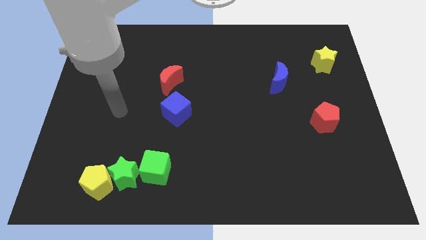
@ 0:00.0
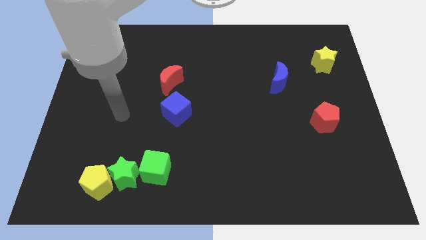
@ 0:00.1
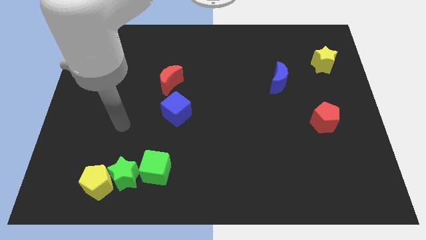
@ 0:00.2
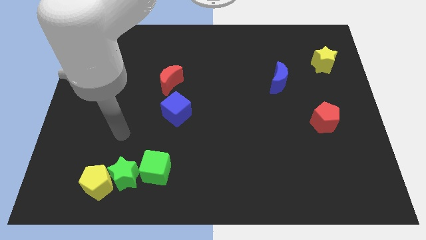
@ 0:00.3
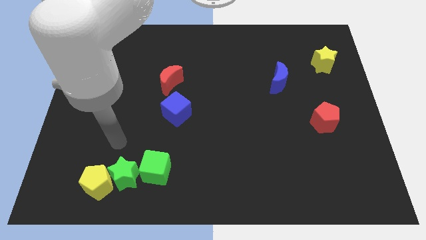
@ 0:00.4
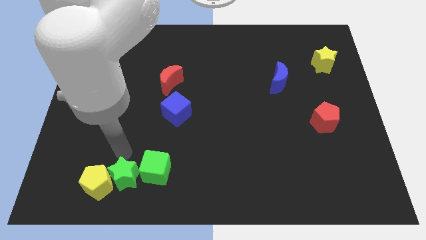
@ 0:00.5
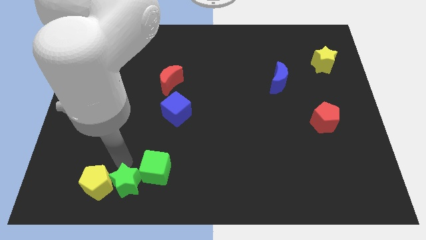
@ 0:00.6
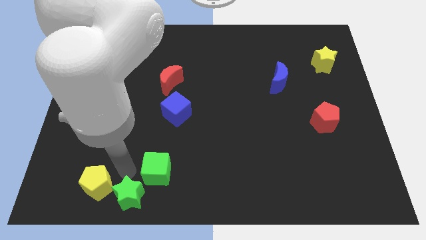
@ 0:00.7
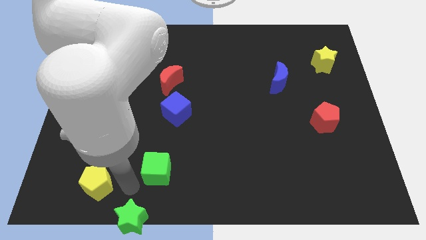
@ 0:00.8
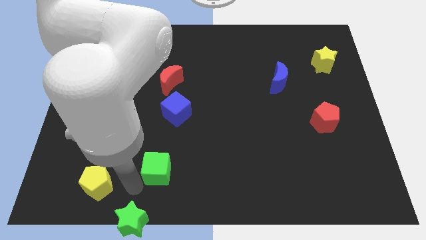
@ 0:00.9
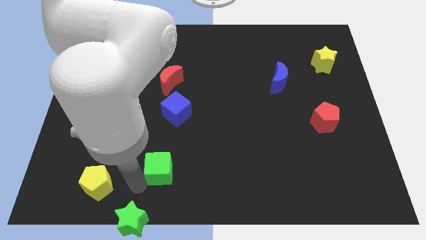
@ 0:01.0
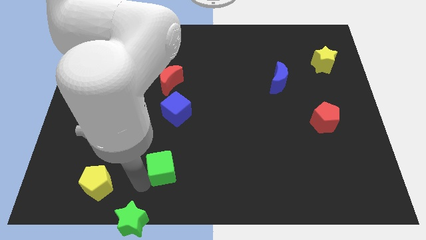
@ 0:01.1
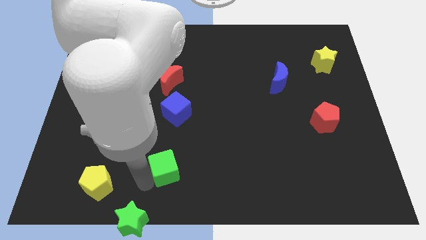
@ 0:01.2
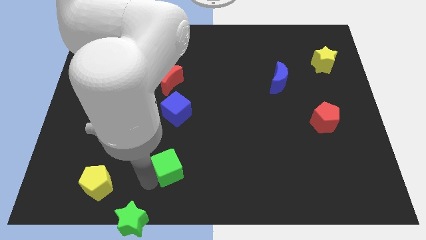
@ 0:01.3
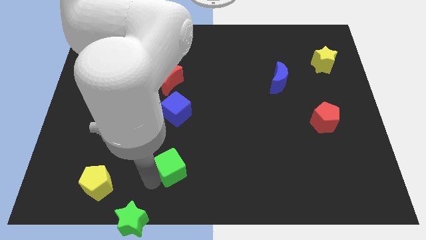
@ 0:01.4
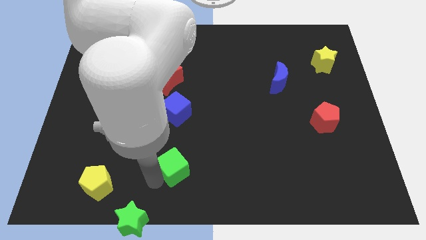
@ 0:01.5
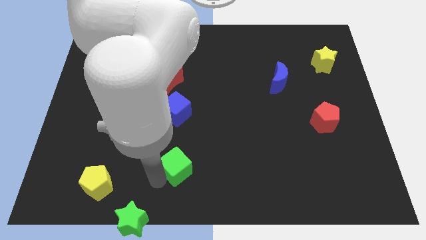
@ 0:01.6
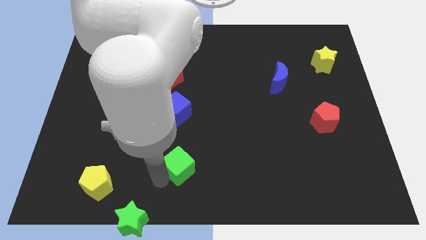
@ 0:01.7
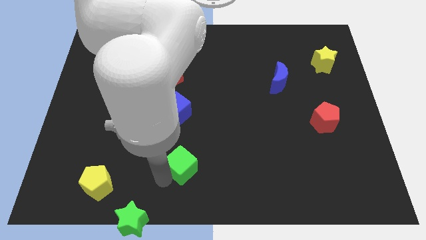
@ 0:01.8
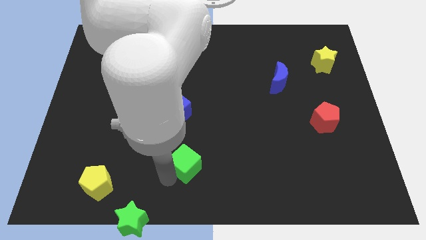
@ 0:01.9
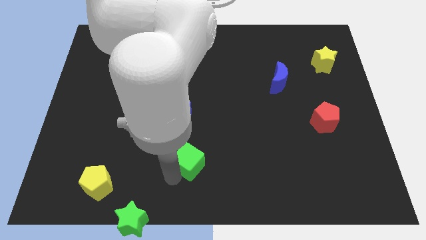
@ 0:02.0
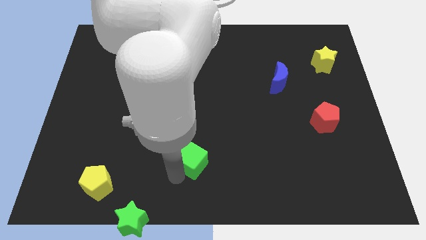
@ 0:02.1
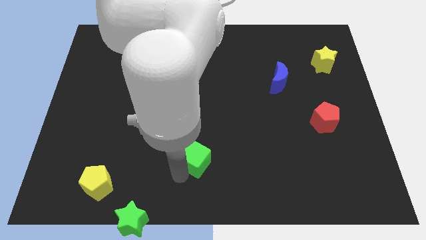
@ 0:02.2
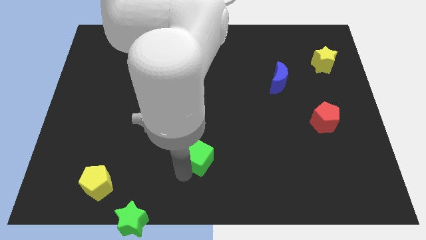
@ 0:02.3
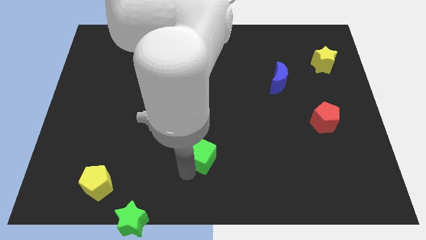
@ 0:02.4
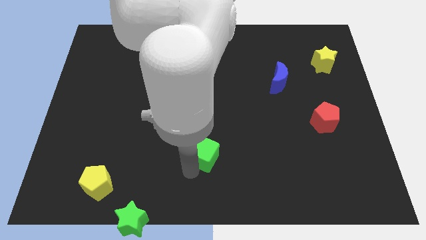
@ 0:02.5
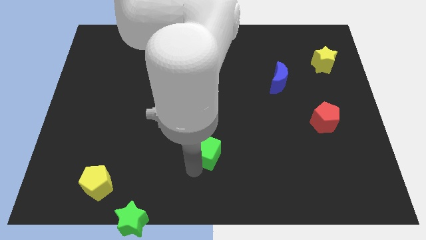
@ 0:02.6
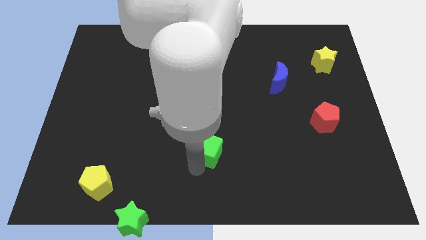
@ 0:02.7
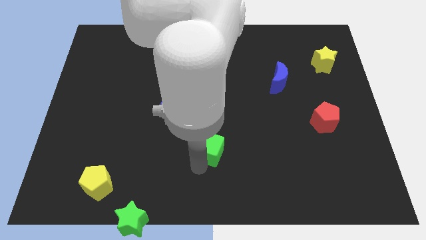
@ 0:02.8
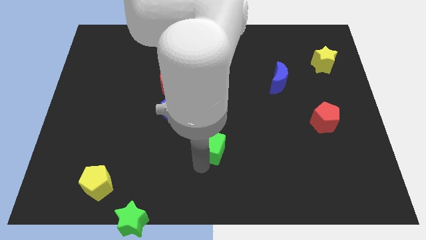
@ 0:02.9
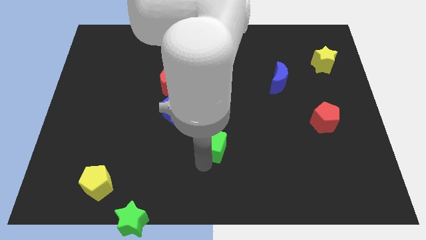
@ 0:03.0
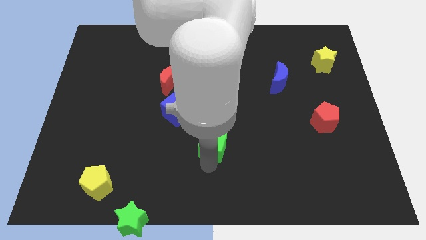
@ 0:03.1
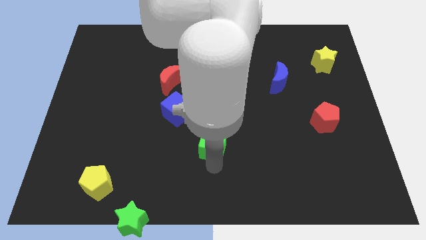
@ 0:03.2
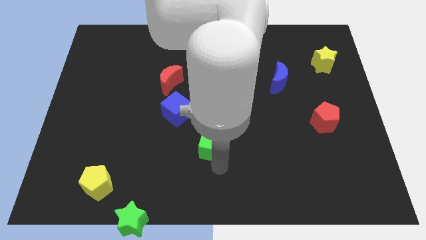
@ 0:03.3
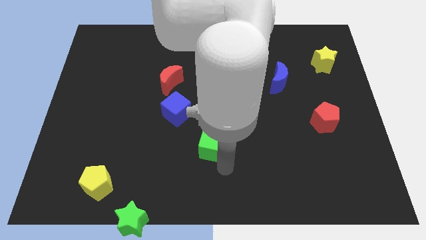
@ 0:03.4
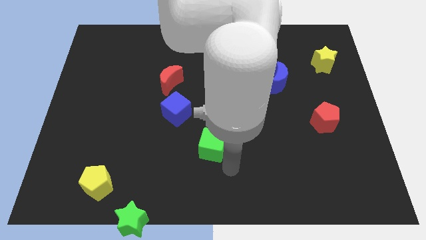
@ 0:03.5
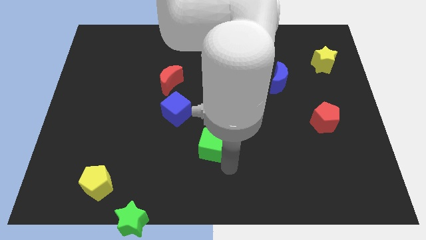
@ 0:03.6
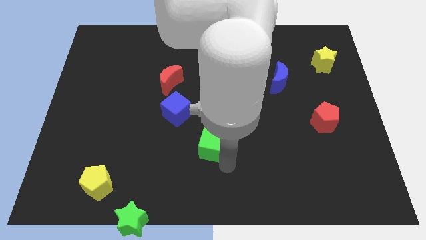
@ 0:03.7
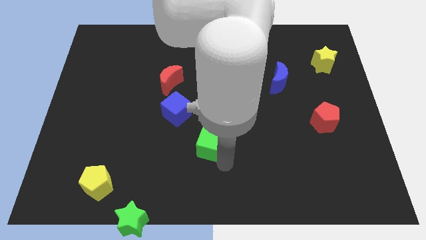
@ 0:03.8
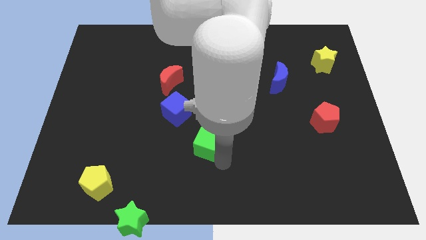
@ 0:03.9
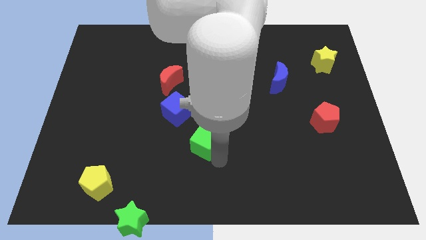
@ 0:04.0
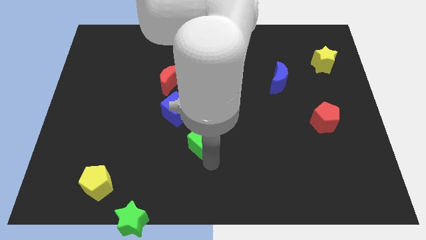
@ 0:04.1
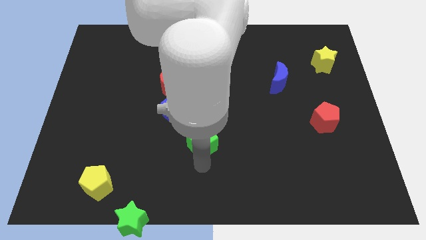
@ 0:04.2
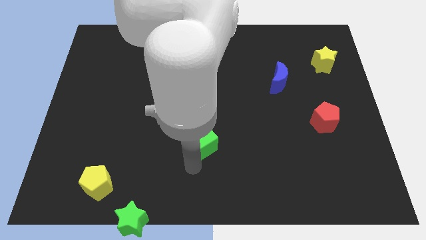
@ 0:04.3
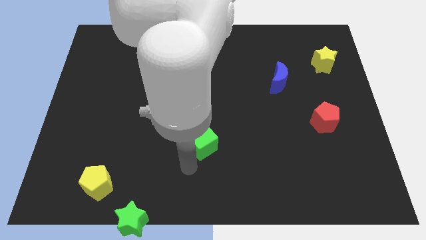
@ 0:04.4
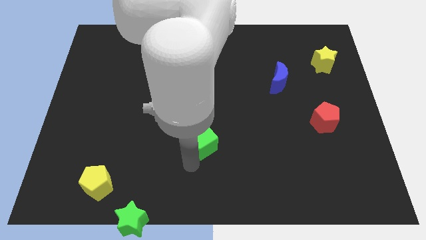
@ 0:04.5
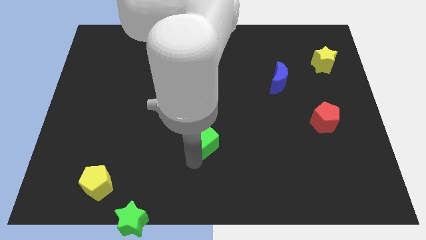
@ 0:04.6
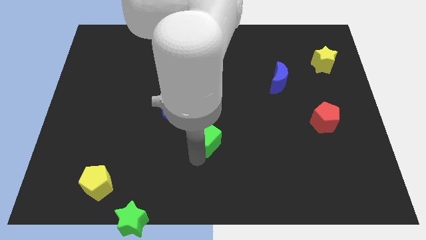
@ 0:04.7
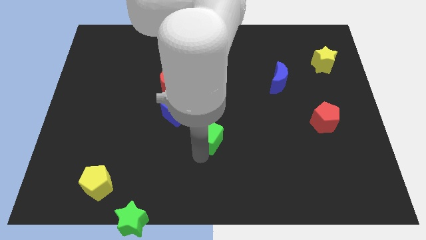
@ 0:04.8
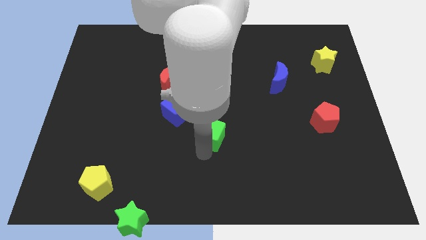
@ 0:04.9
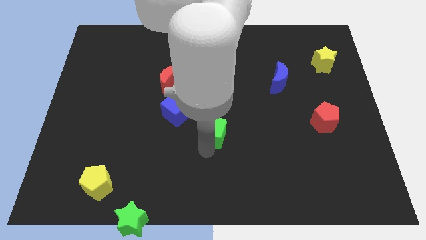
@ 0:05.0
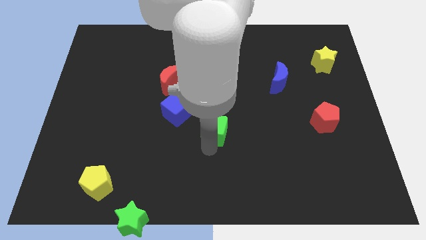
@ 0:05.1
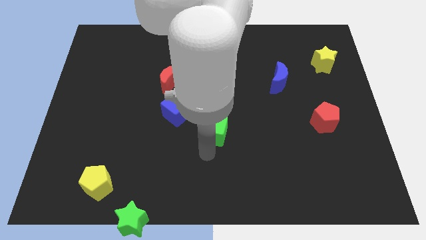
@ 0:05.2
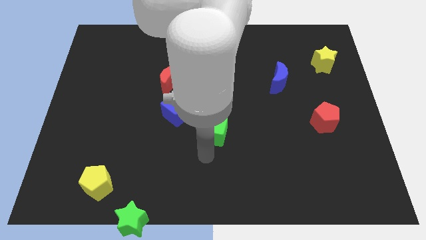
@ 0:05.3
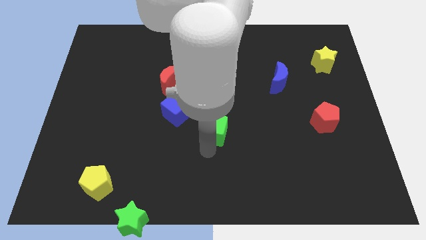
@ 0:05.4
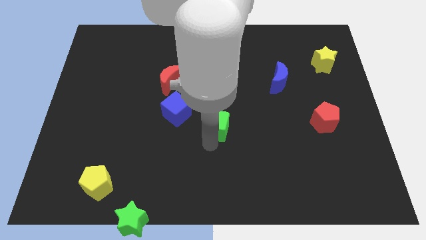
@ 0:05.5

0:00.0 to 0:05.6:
slide the green cube to the right of the blue cube

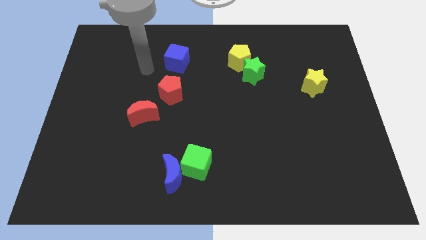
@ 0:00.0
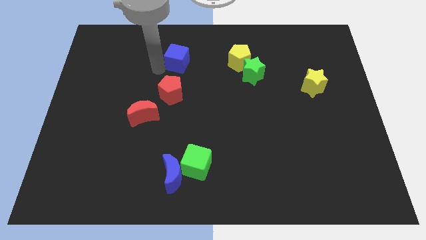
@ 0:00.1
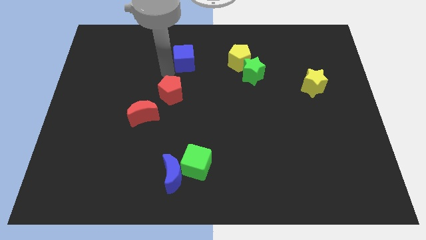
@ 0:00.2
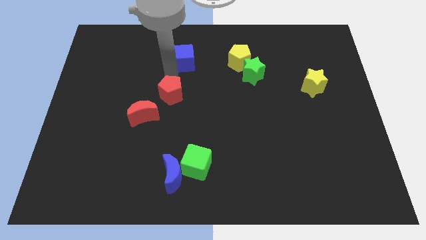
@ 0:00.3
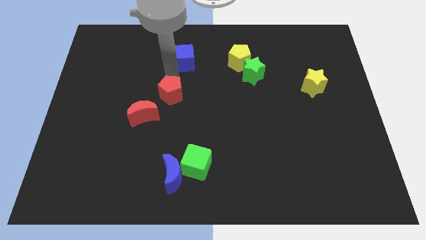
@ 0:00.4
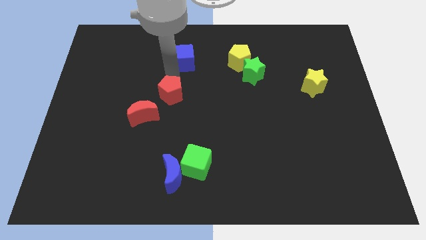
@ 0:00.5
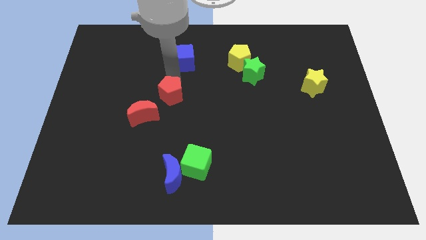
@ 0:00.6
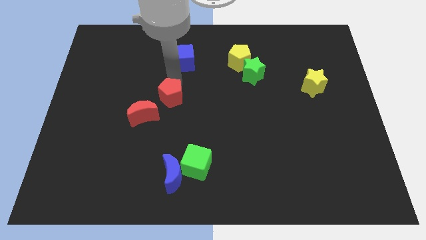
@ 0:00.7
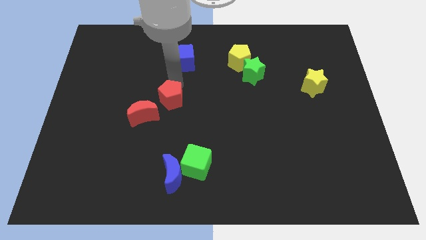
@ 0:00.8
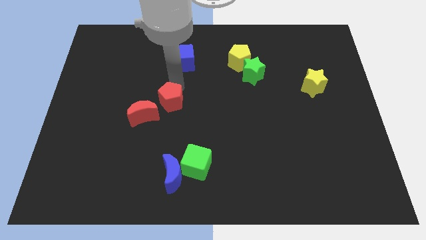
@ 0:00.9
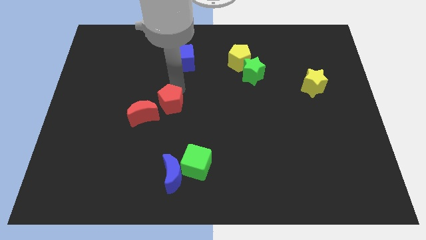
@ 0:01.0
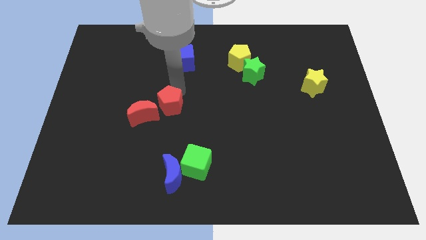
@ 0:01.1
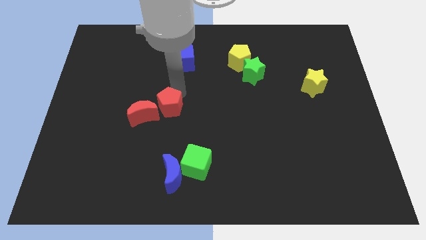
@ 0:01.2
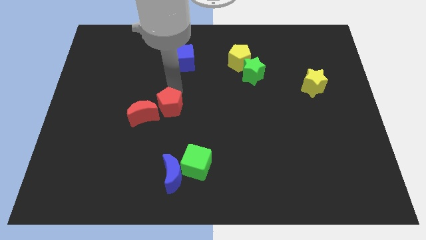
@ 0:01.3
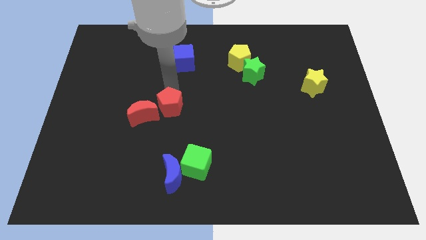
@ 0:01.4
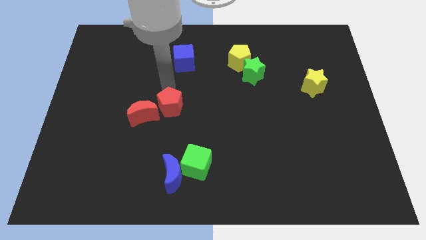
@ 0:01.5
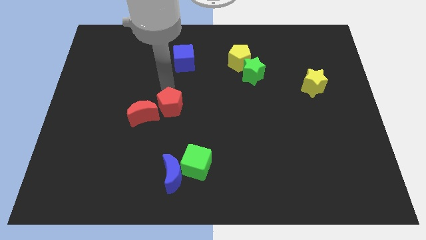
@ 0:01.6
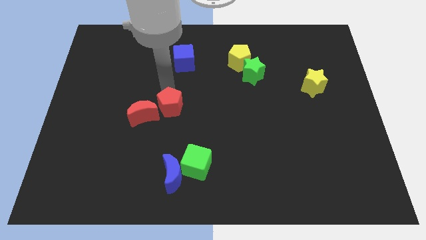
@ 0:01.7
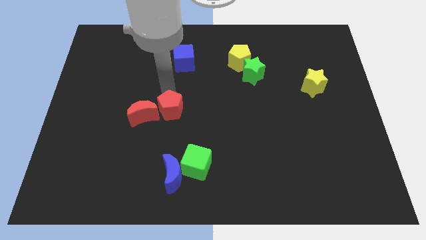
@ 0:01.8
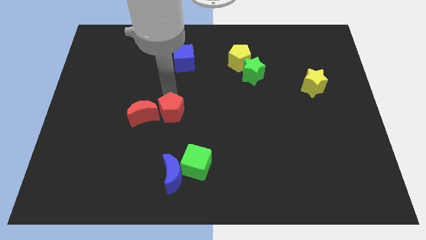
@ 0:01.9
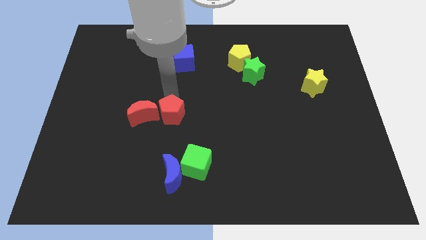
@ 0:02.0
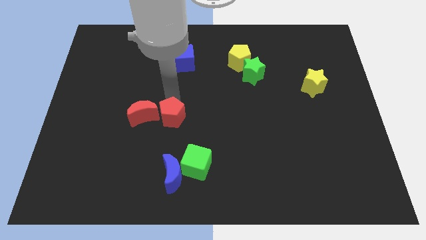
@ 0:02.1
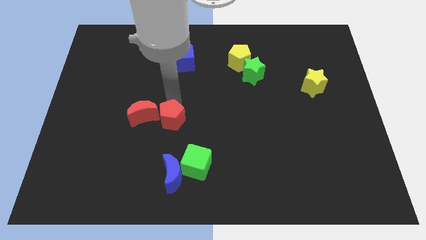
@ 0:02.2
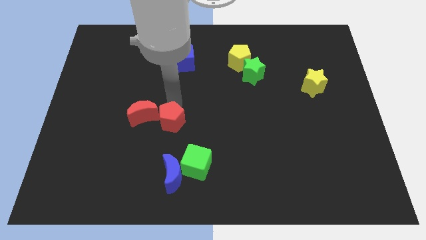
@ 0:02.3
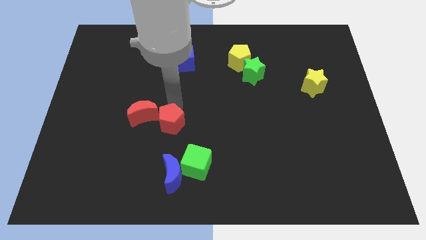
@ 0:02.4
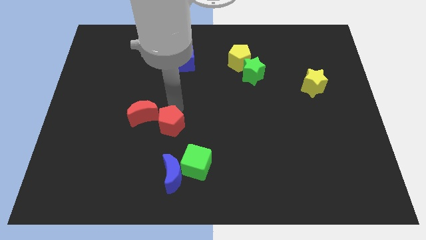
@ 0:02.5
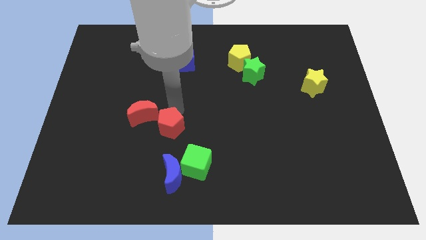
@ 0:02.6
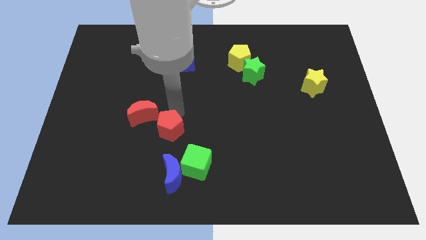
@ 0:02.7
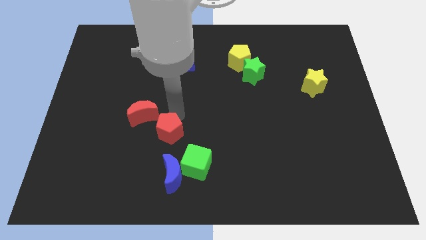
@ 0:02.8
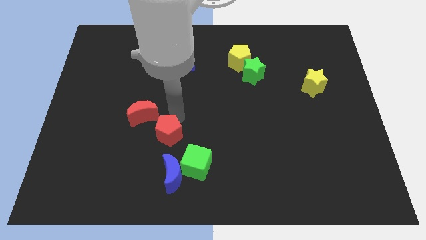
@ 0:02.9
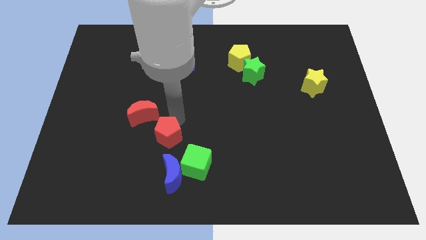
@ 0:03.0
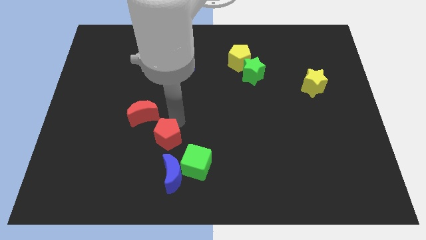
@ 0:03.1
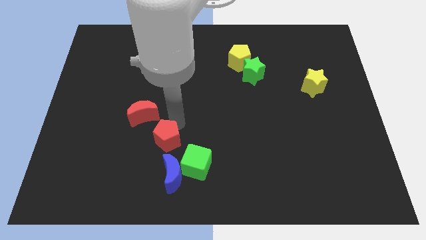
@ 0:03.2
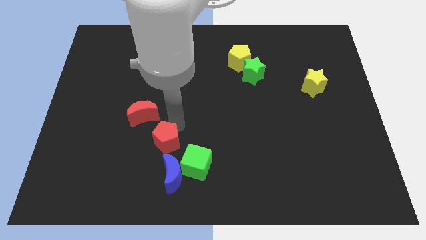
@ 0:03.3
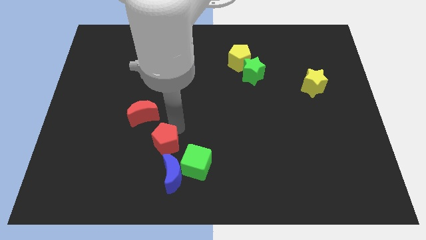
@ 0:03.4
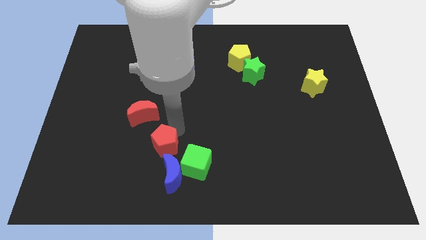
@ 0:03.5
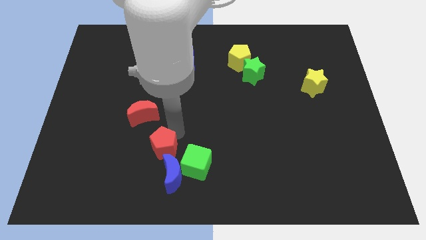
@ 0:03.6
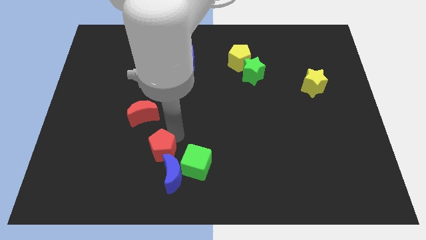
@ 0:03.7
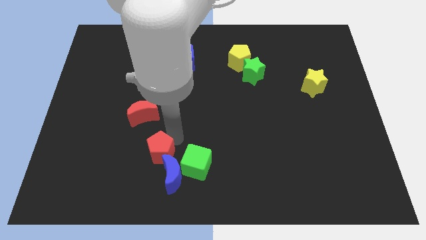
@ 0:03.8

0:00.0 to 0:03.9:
push the red pentagon below the red moon
